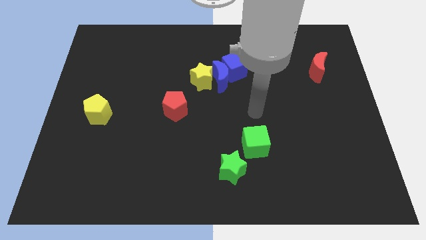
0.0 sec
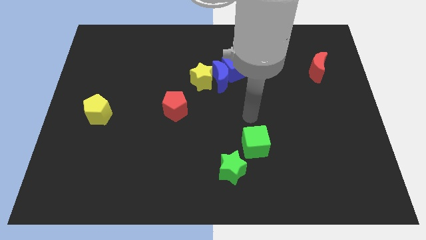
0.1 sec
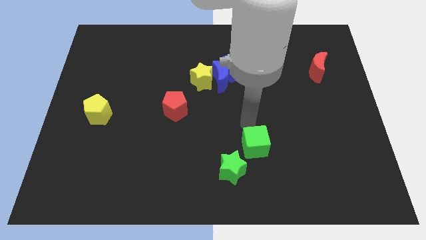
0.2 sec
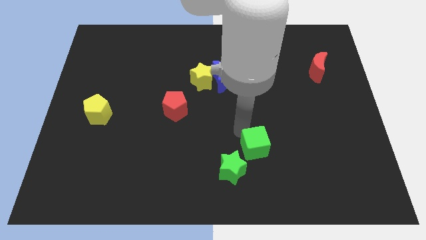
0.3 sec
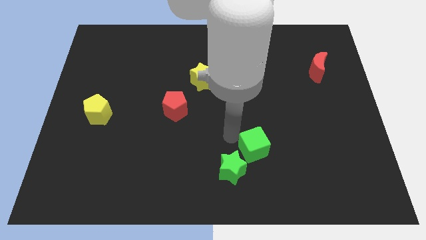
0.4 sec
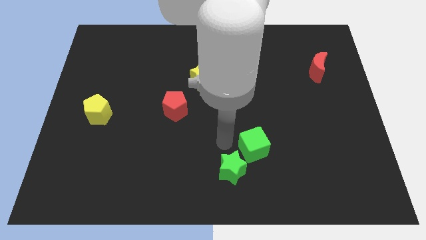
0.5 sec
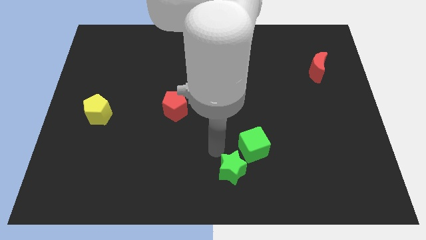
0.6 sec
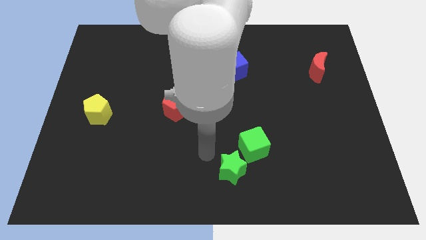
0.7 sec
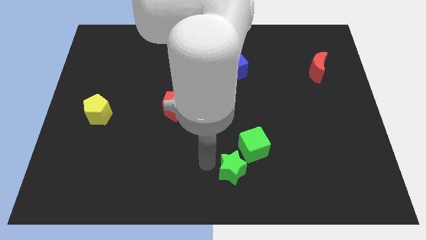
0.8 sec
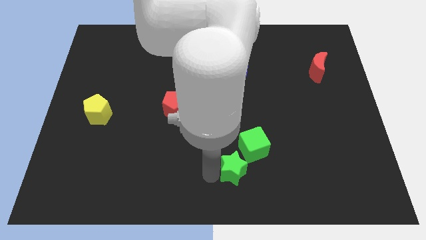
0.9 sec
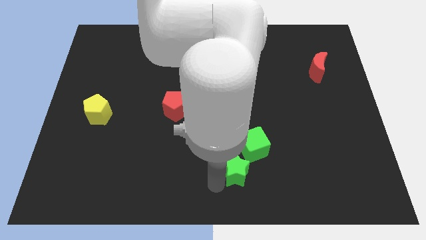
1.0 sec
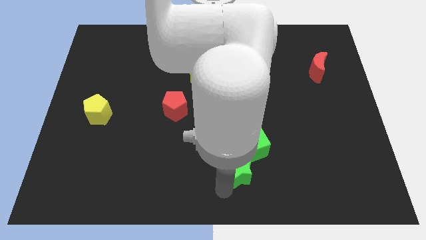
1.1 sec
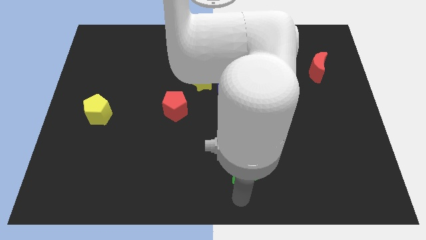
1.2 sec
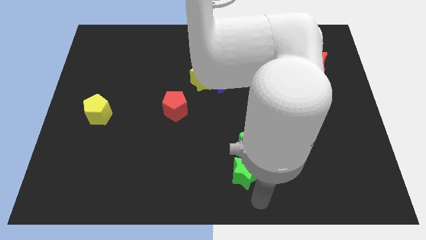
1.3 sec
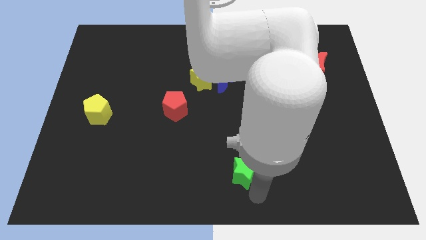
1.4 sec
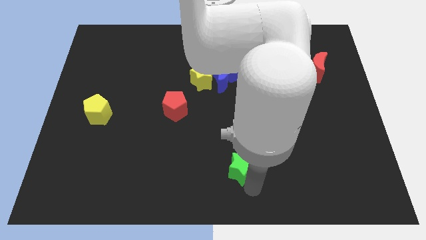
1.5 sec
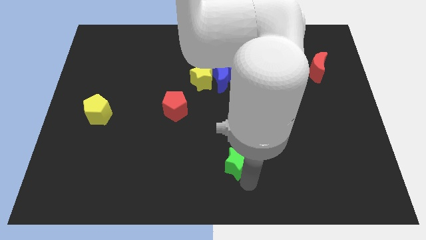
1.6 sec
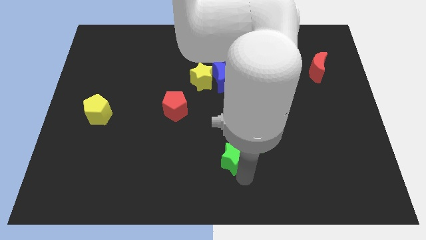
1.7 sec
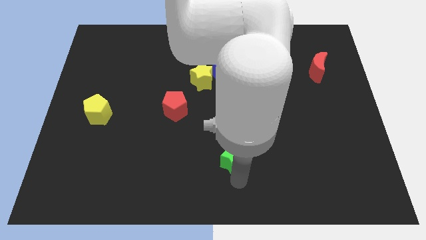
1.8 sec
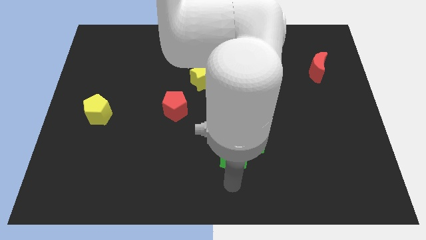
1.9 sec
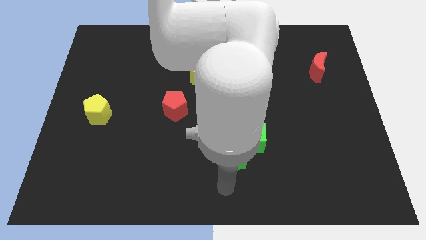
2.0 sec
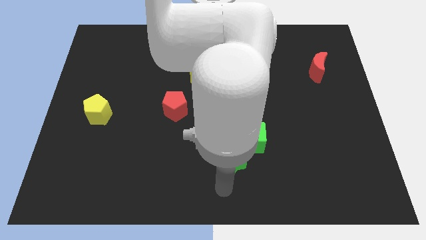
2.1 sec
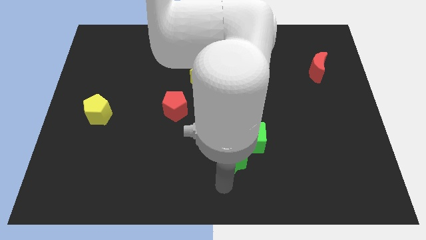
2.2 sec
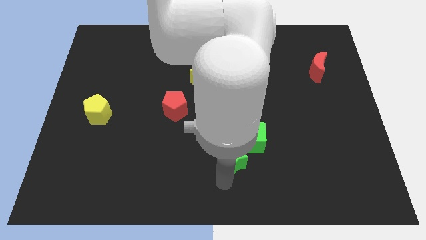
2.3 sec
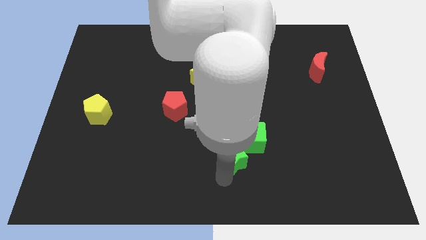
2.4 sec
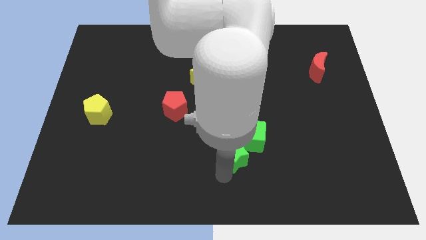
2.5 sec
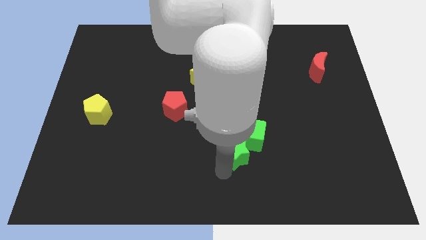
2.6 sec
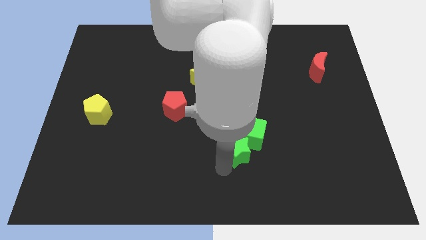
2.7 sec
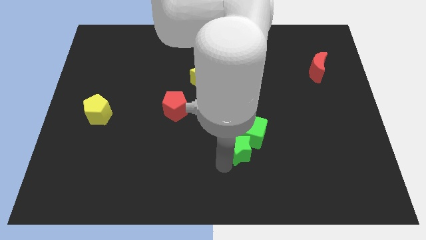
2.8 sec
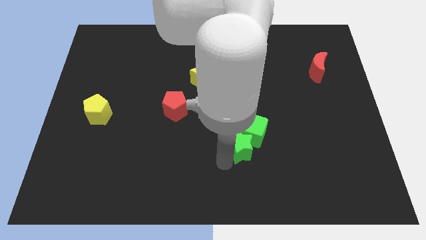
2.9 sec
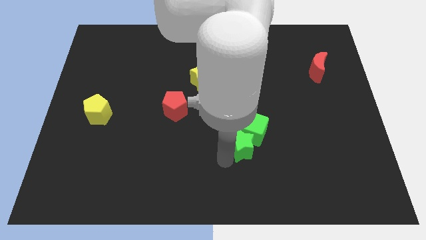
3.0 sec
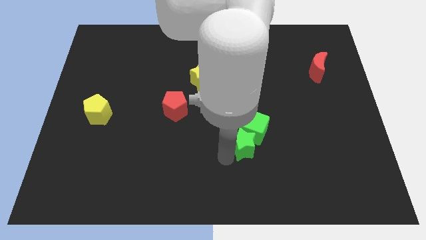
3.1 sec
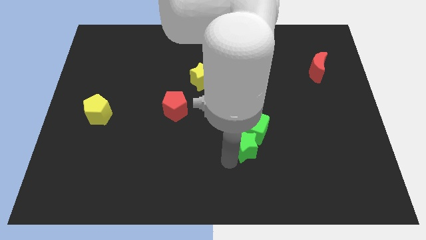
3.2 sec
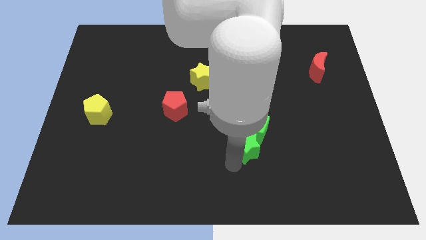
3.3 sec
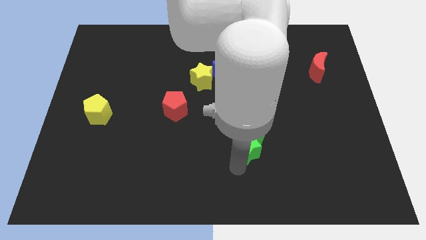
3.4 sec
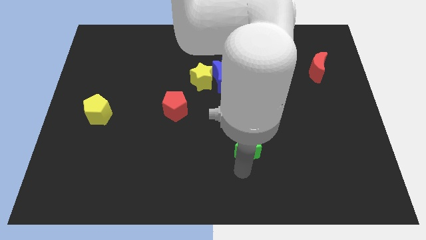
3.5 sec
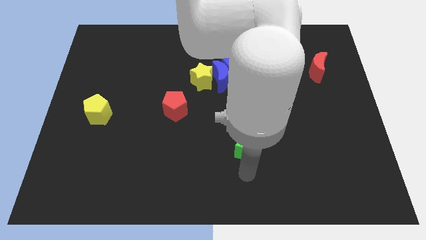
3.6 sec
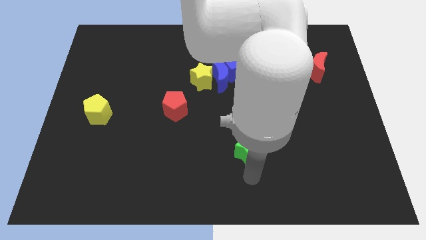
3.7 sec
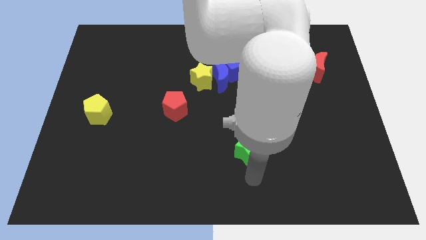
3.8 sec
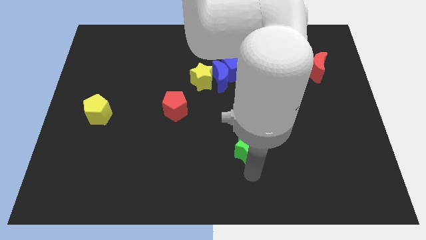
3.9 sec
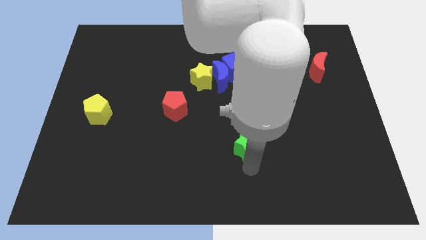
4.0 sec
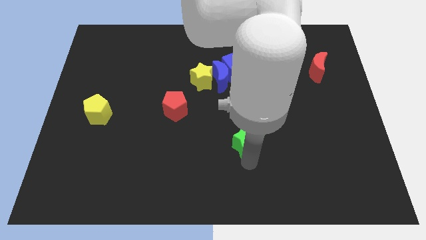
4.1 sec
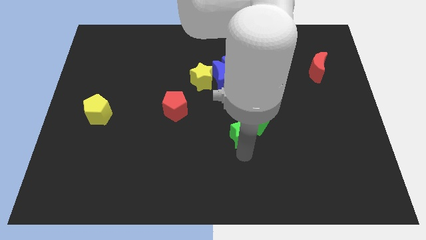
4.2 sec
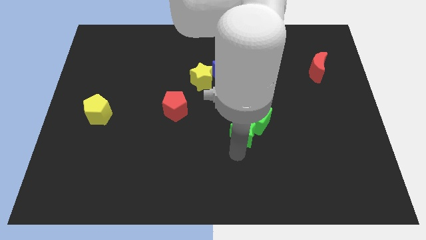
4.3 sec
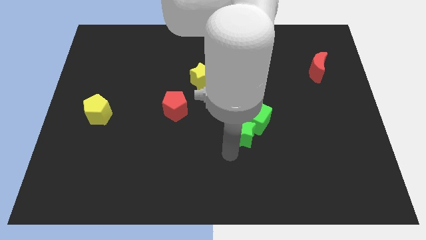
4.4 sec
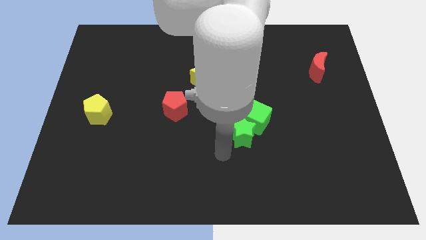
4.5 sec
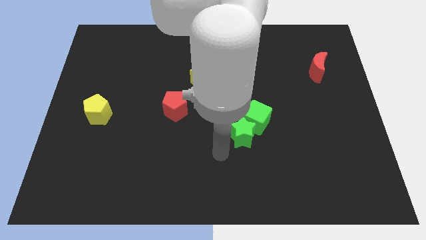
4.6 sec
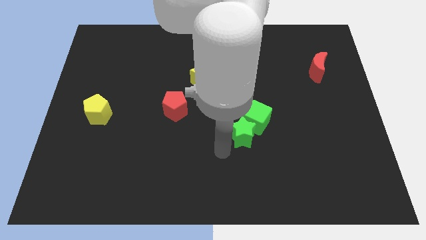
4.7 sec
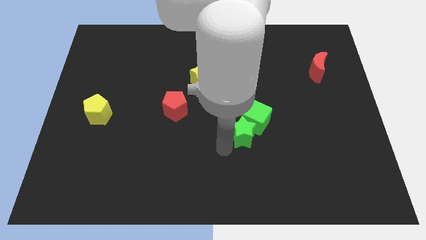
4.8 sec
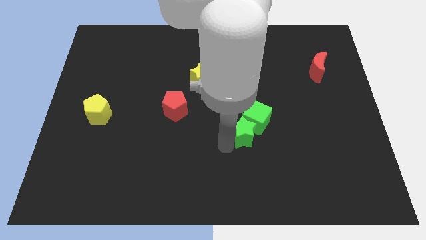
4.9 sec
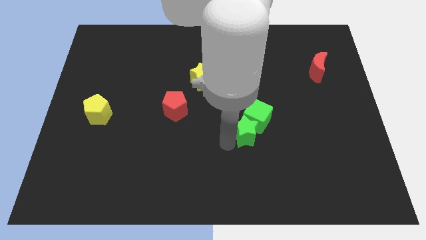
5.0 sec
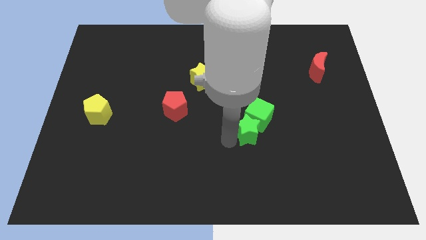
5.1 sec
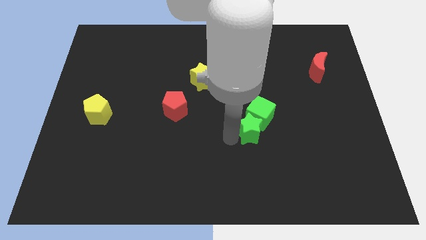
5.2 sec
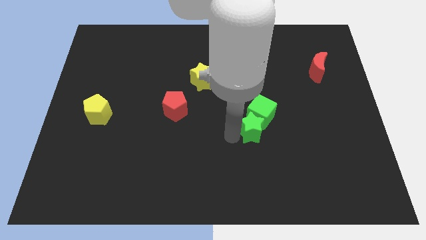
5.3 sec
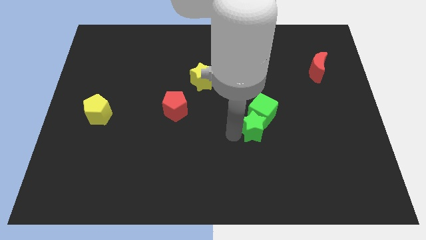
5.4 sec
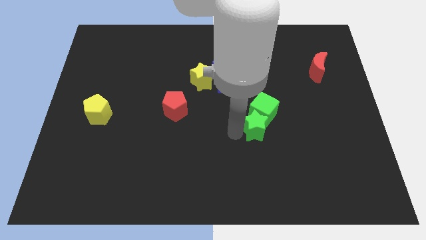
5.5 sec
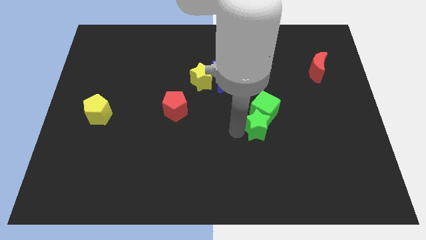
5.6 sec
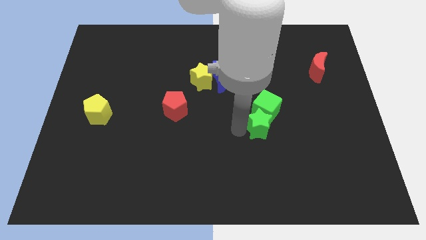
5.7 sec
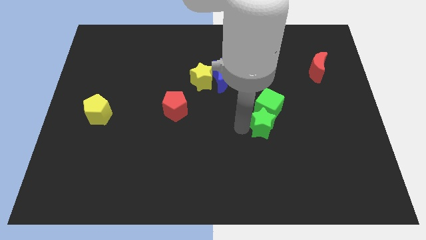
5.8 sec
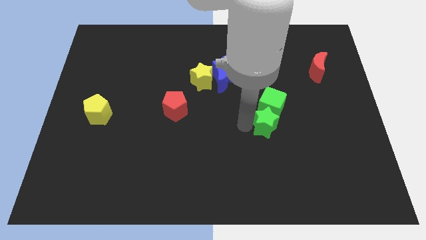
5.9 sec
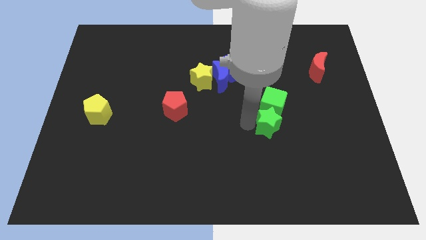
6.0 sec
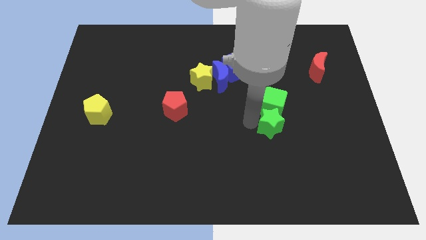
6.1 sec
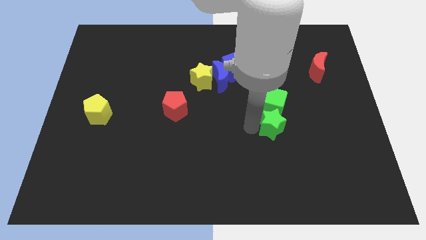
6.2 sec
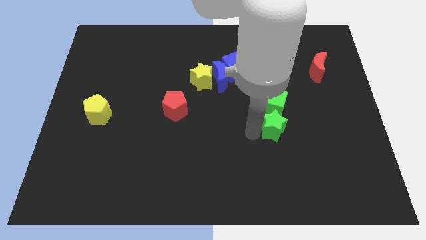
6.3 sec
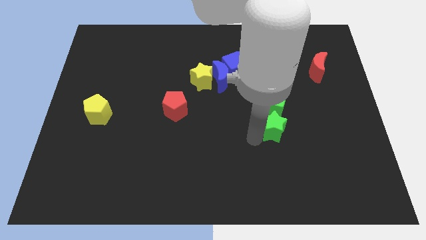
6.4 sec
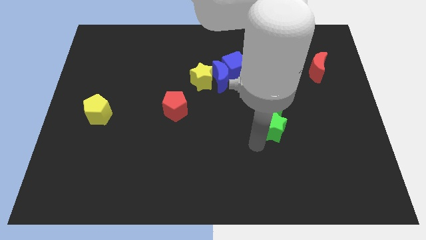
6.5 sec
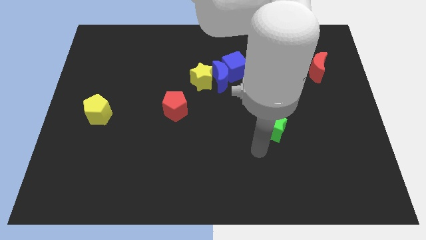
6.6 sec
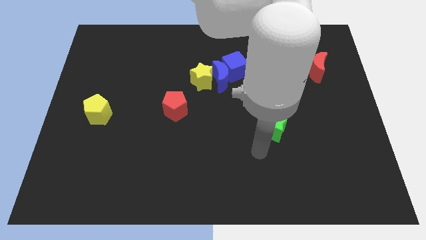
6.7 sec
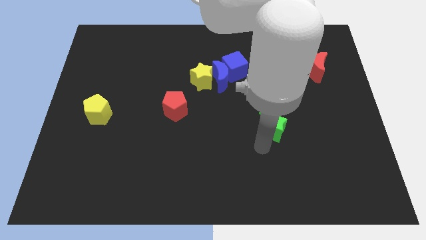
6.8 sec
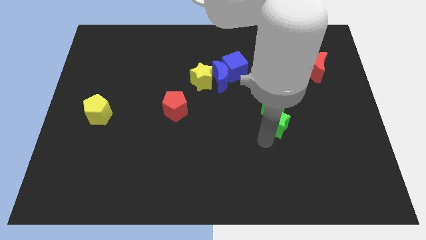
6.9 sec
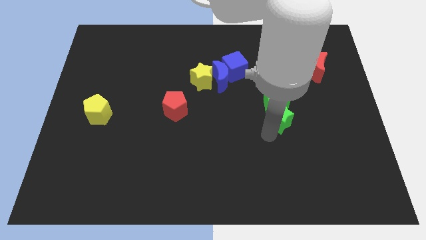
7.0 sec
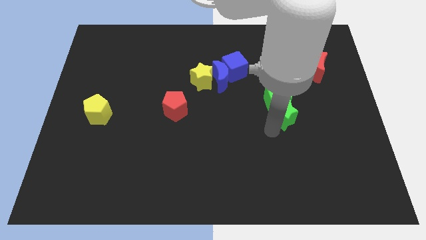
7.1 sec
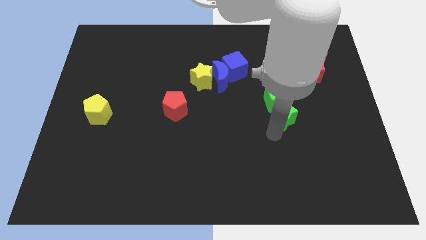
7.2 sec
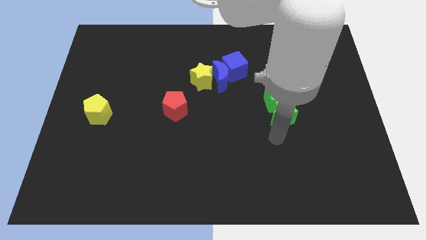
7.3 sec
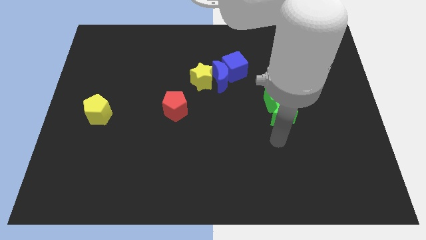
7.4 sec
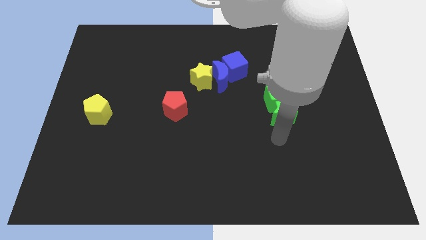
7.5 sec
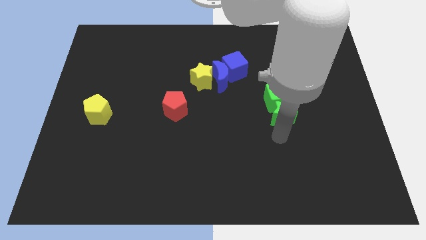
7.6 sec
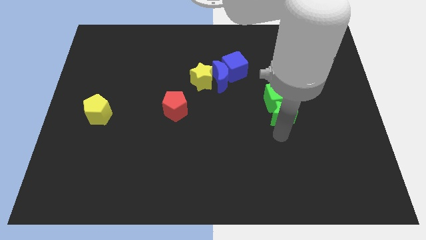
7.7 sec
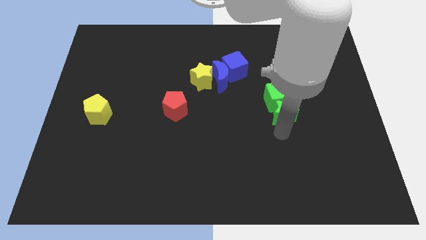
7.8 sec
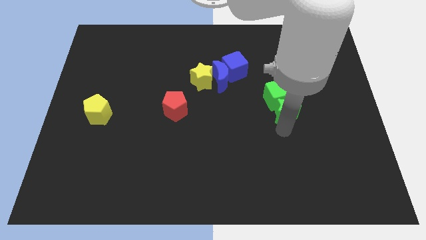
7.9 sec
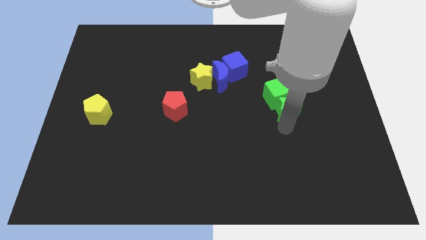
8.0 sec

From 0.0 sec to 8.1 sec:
move the green star upwards and right diagonally

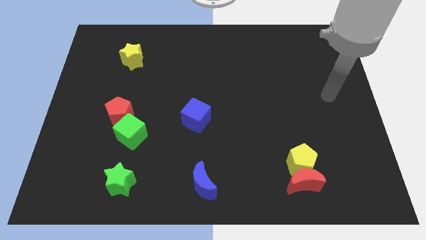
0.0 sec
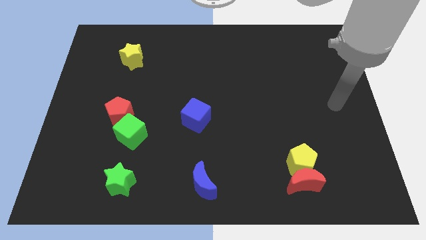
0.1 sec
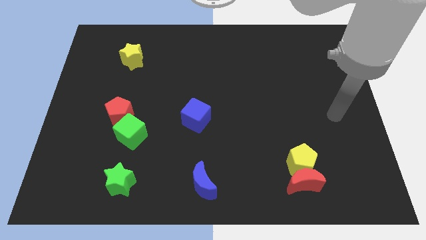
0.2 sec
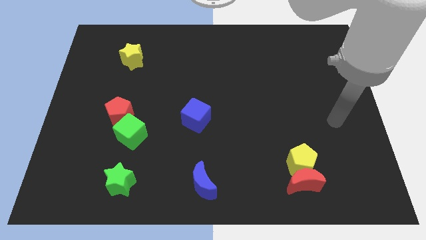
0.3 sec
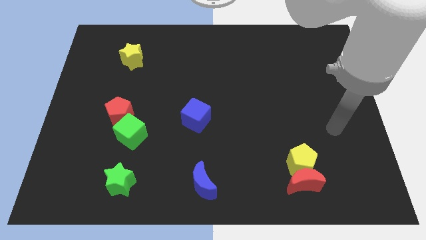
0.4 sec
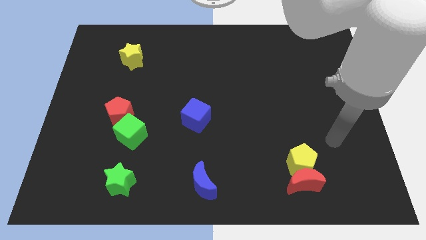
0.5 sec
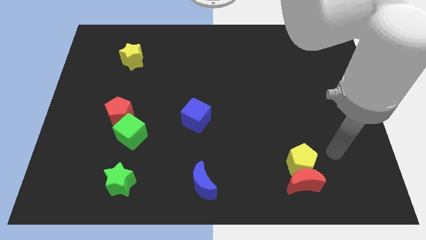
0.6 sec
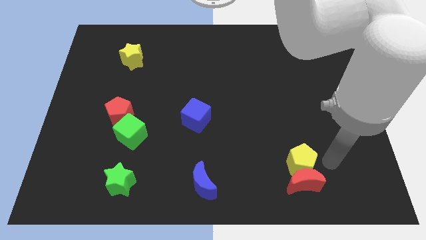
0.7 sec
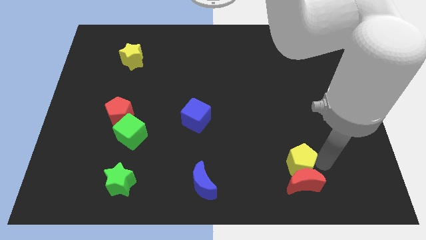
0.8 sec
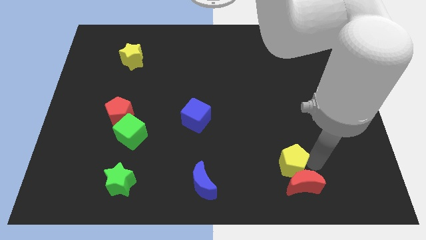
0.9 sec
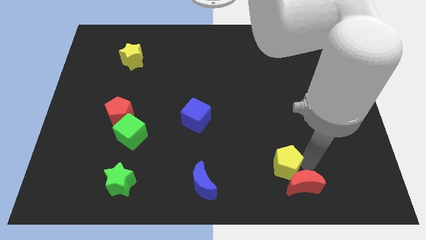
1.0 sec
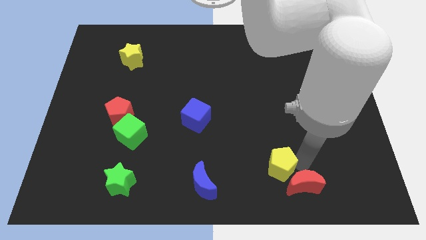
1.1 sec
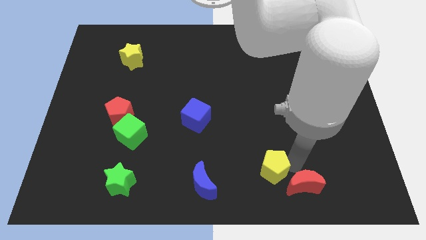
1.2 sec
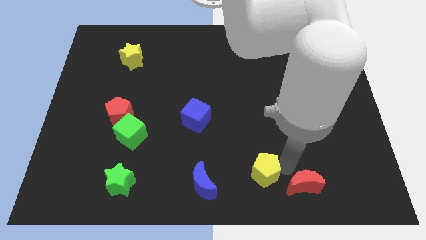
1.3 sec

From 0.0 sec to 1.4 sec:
push the yellow pentagon to the left somewhat
